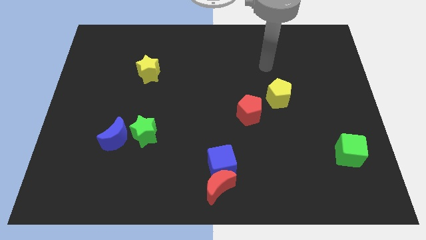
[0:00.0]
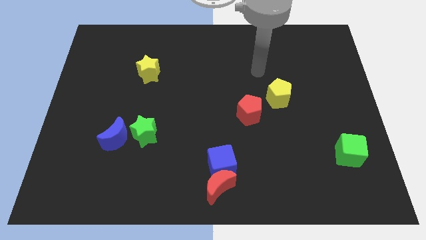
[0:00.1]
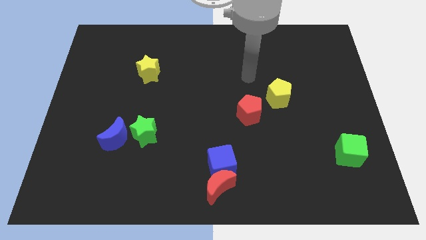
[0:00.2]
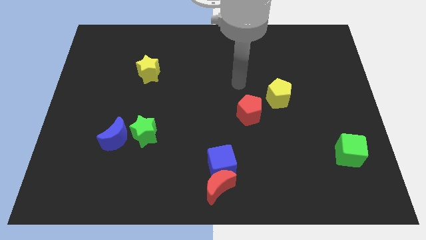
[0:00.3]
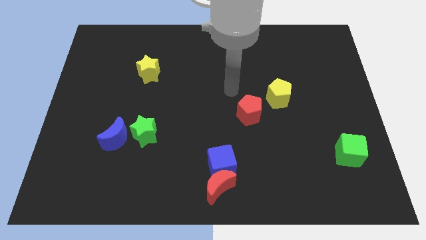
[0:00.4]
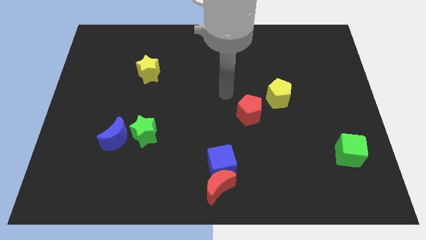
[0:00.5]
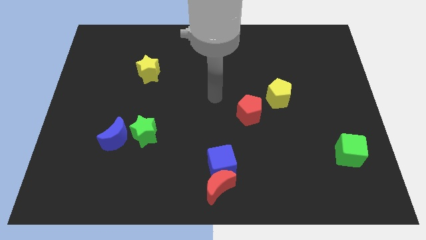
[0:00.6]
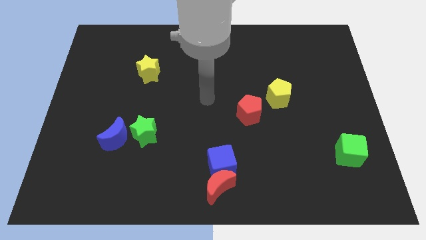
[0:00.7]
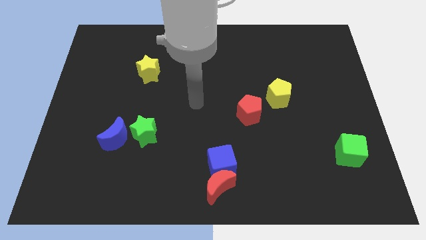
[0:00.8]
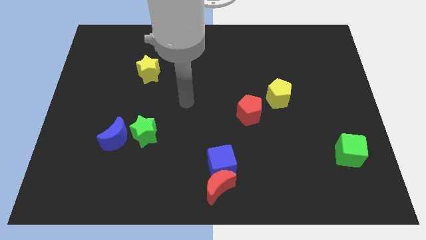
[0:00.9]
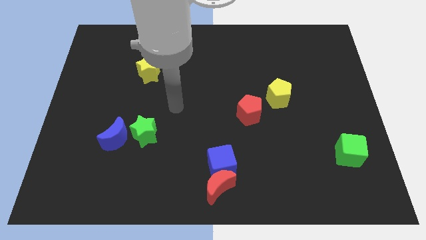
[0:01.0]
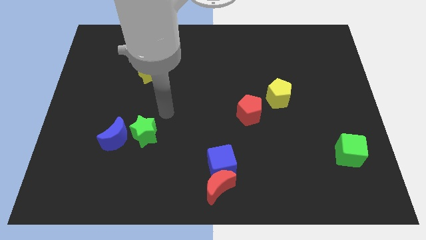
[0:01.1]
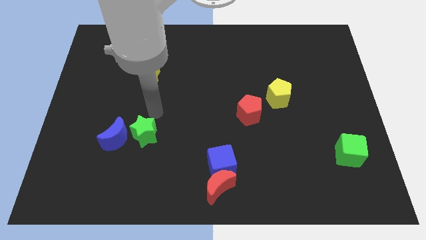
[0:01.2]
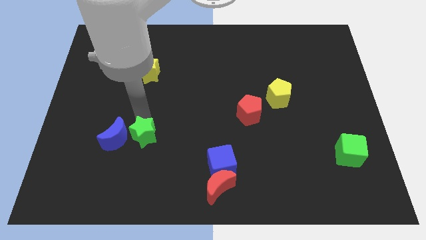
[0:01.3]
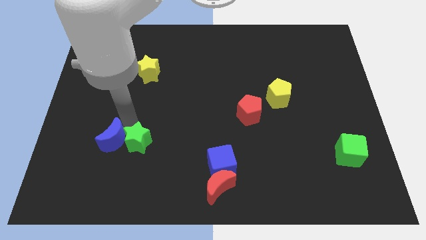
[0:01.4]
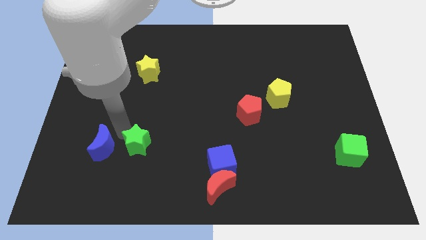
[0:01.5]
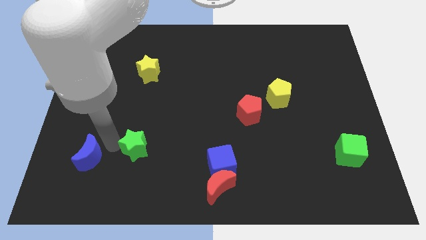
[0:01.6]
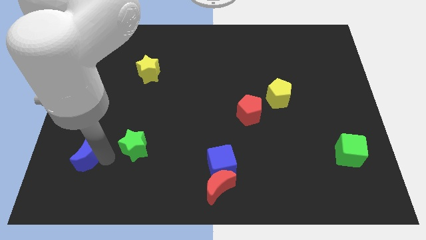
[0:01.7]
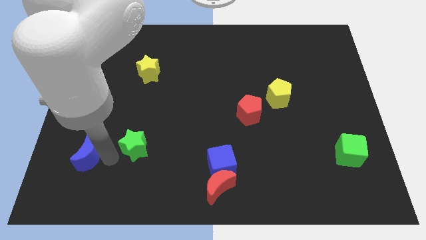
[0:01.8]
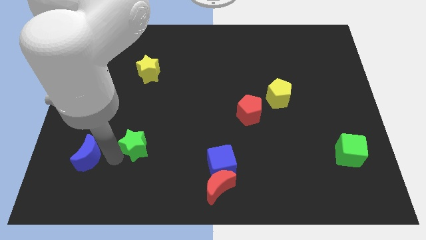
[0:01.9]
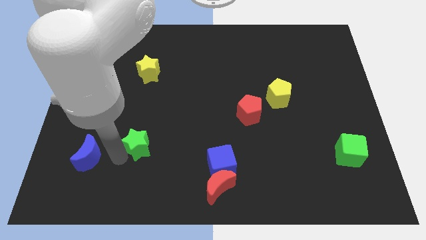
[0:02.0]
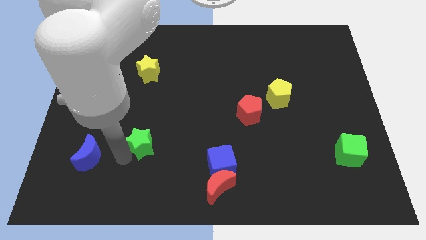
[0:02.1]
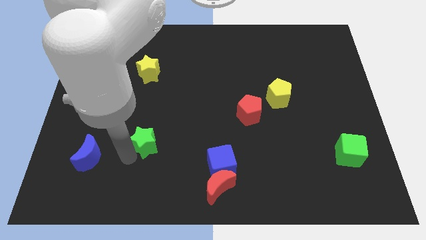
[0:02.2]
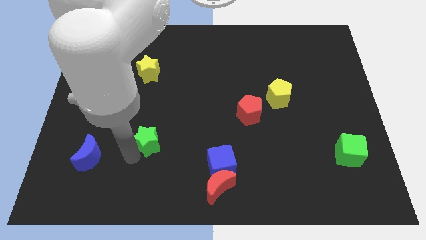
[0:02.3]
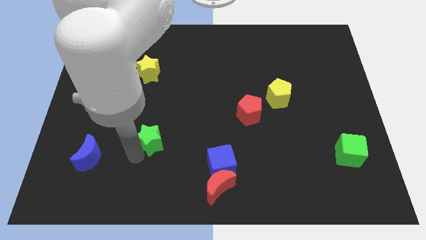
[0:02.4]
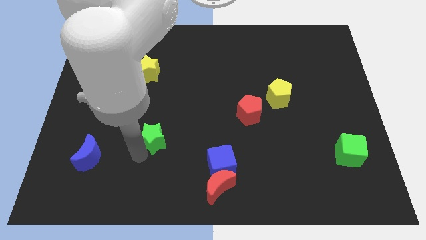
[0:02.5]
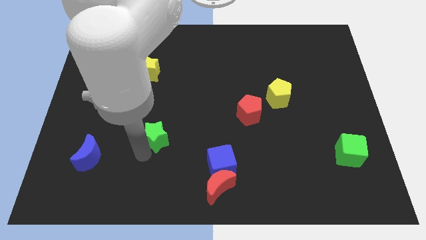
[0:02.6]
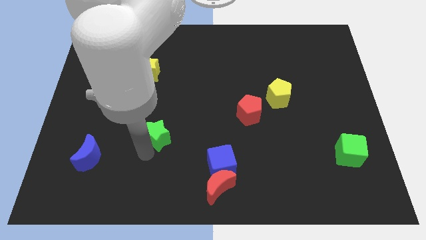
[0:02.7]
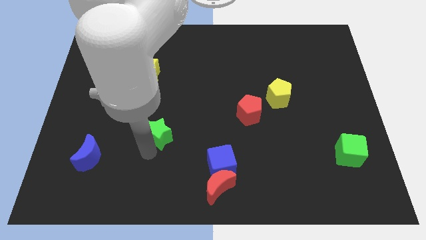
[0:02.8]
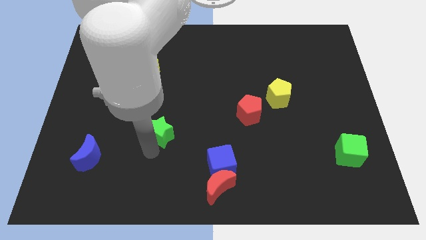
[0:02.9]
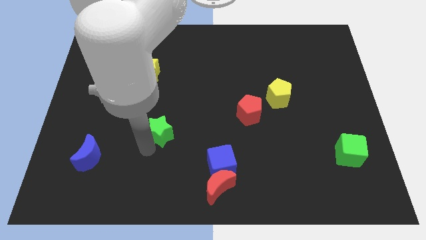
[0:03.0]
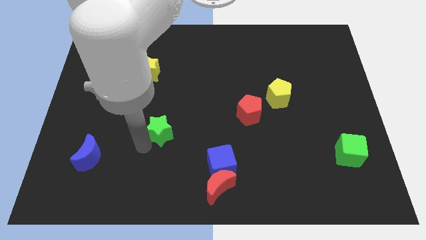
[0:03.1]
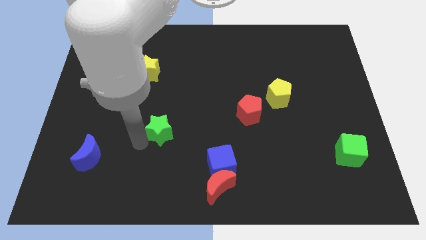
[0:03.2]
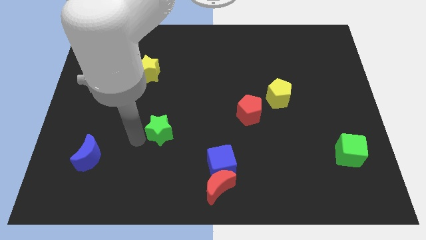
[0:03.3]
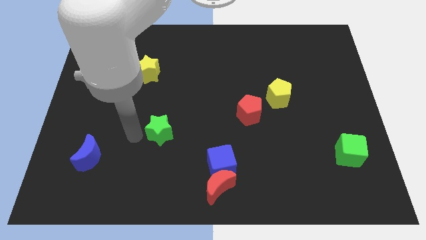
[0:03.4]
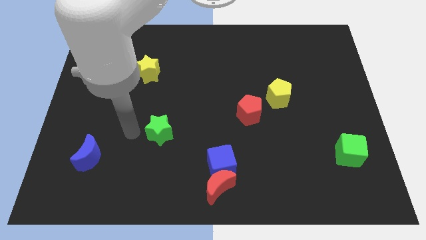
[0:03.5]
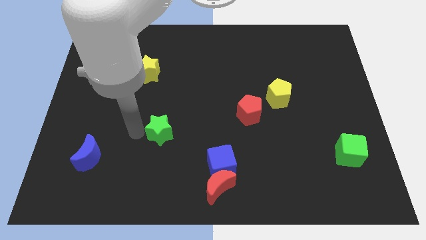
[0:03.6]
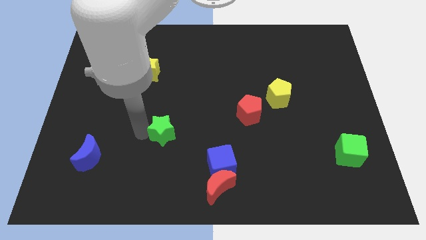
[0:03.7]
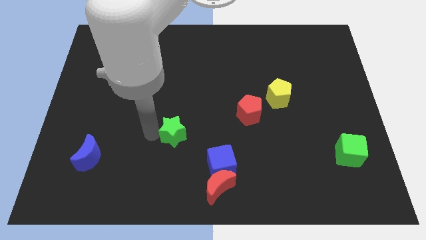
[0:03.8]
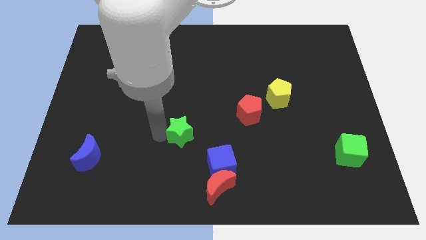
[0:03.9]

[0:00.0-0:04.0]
slide the green star a bit to the right

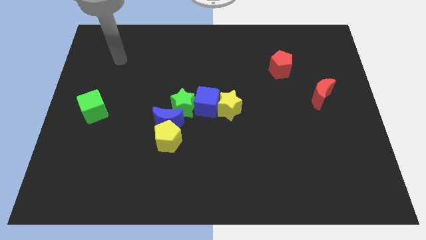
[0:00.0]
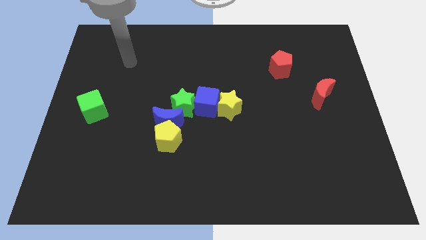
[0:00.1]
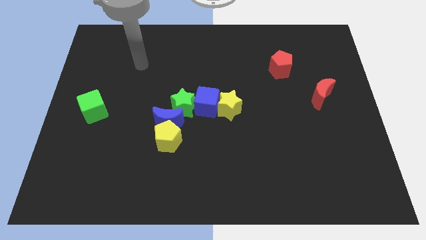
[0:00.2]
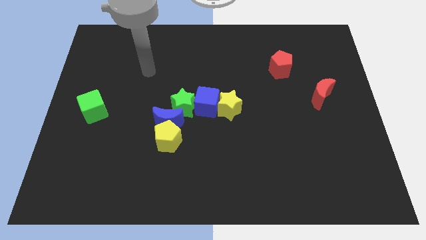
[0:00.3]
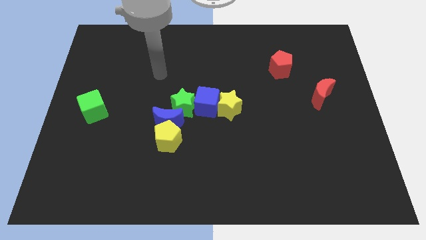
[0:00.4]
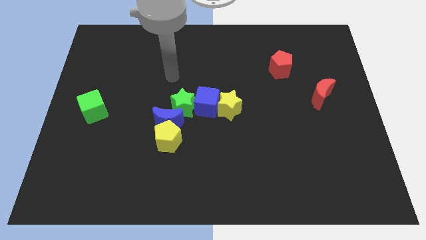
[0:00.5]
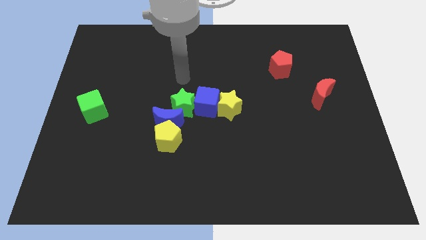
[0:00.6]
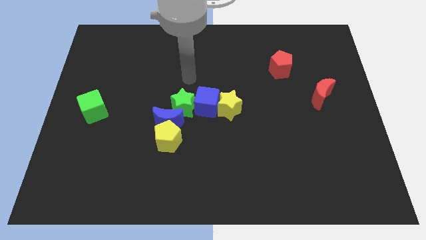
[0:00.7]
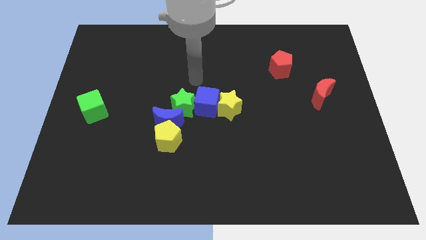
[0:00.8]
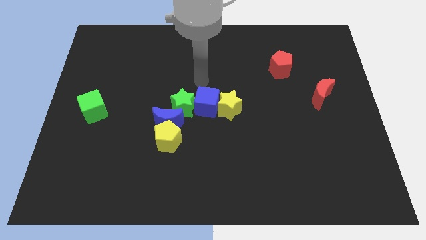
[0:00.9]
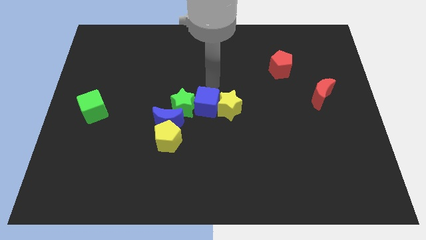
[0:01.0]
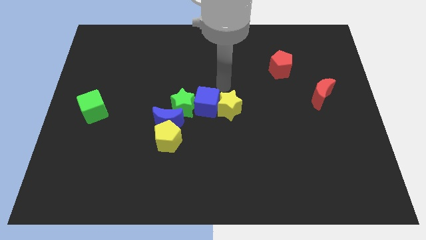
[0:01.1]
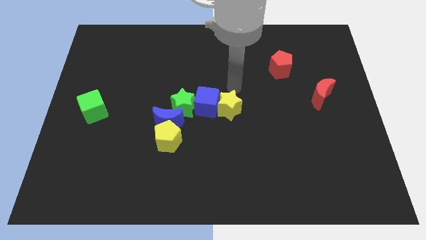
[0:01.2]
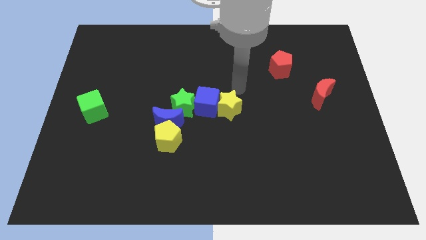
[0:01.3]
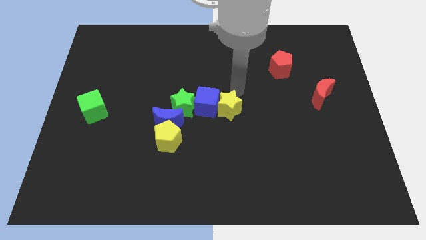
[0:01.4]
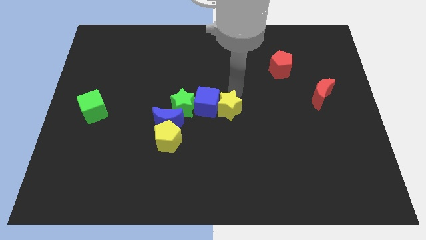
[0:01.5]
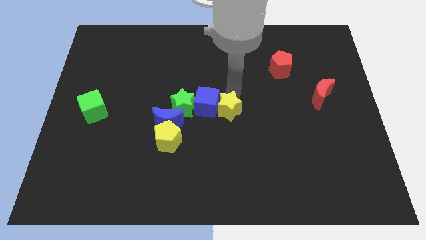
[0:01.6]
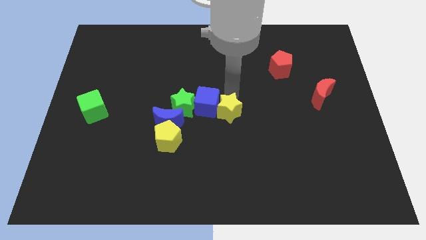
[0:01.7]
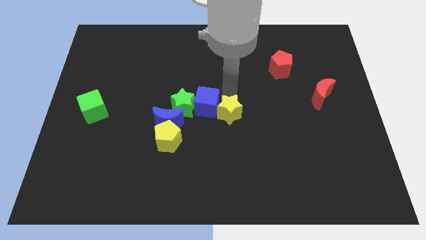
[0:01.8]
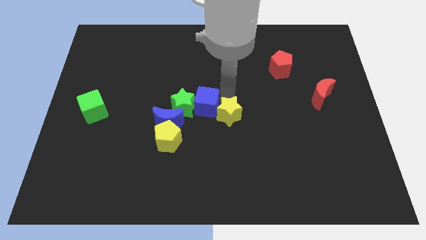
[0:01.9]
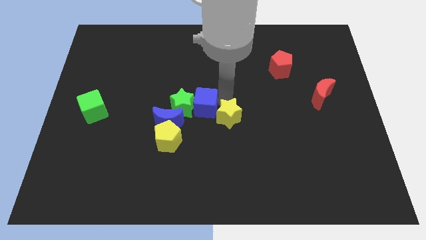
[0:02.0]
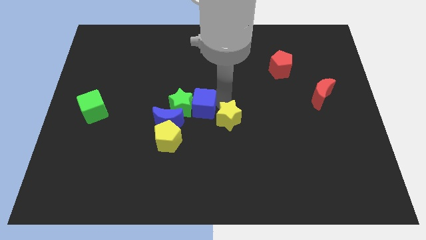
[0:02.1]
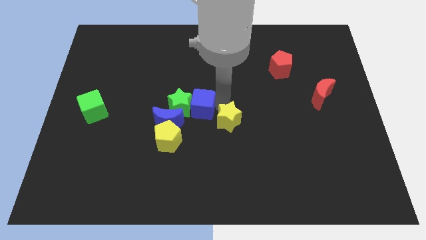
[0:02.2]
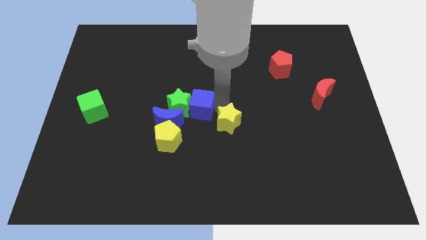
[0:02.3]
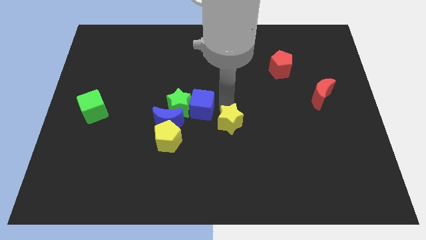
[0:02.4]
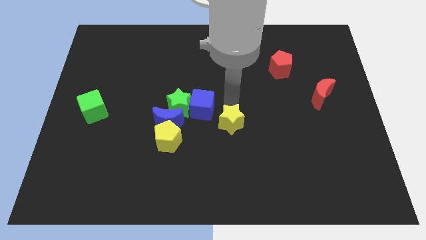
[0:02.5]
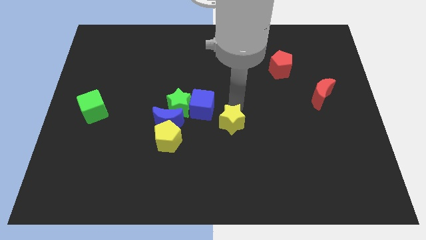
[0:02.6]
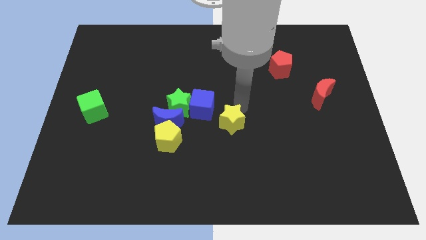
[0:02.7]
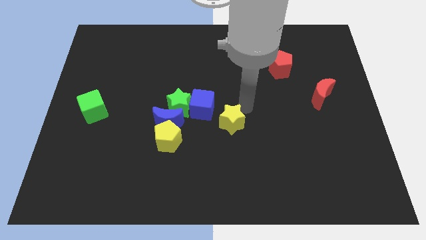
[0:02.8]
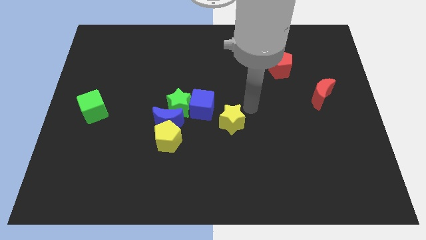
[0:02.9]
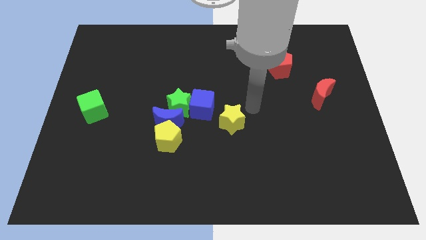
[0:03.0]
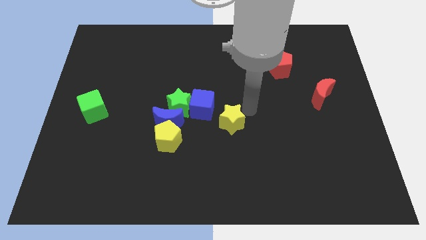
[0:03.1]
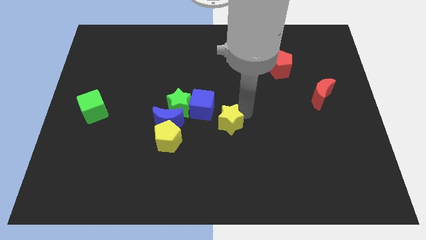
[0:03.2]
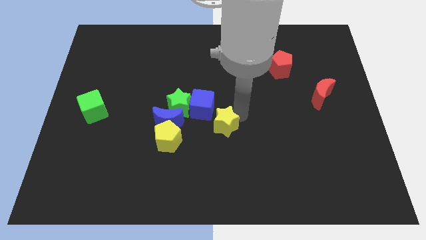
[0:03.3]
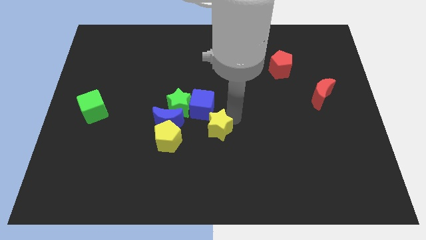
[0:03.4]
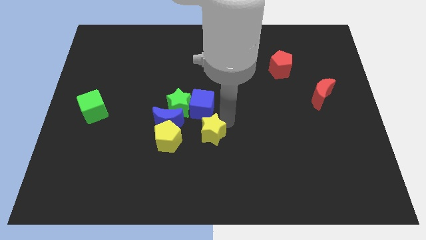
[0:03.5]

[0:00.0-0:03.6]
push the yellow star somewhat downwards and then to the left

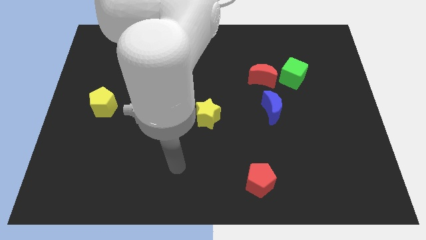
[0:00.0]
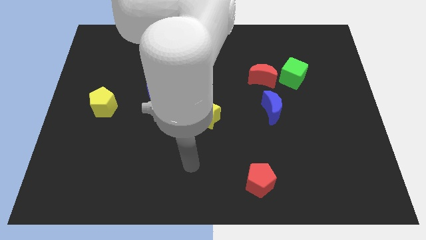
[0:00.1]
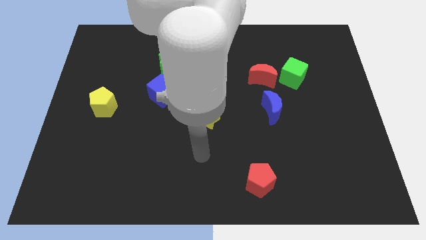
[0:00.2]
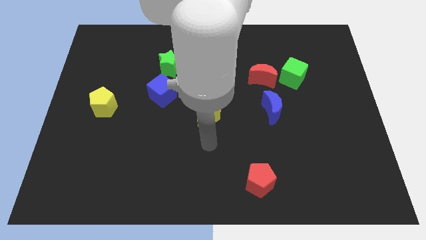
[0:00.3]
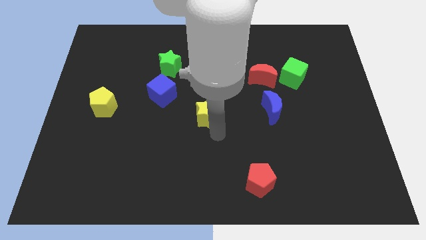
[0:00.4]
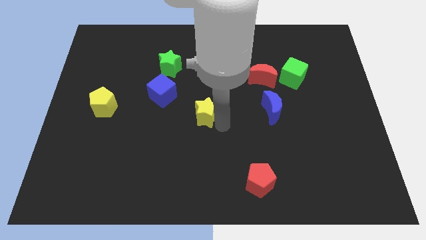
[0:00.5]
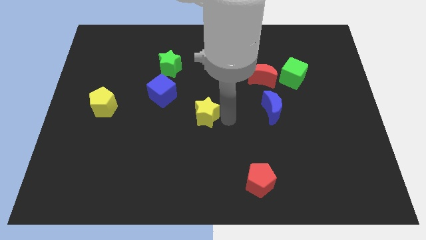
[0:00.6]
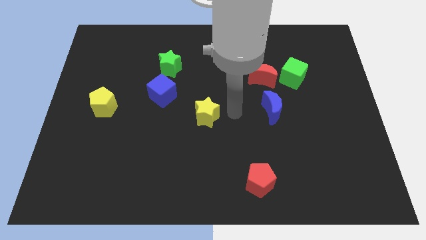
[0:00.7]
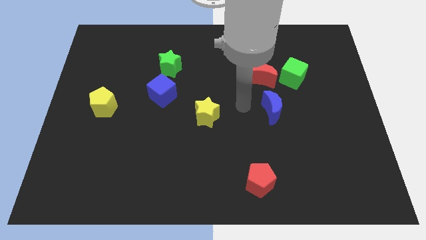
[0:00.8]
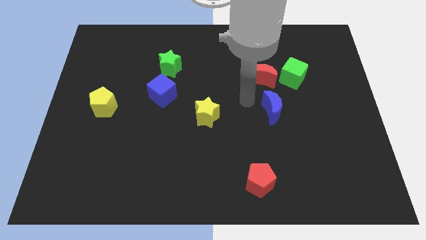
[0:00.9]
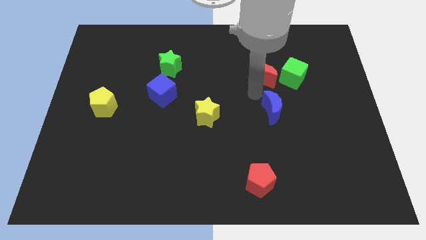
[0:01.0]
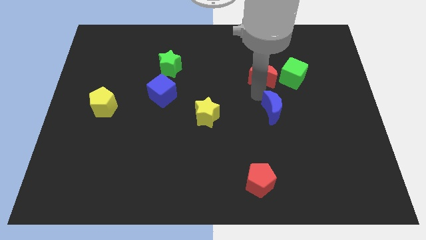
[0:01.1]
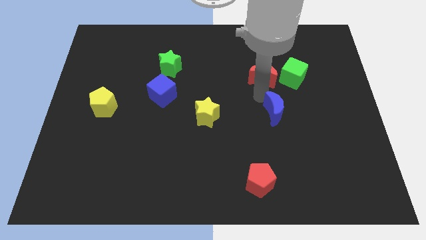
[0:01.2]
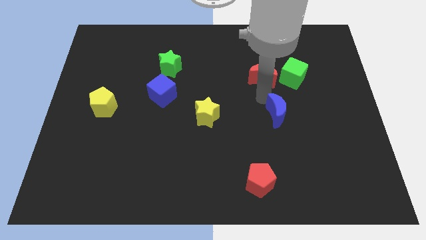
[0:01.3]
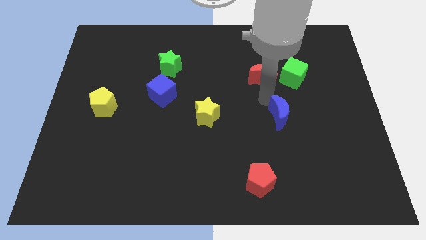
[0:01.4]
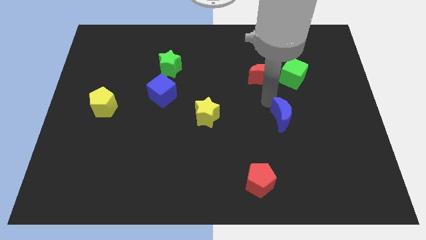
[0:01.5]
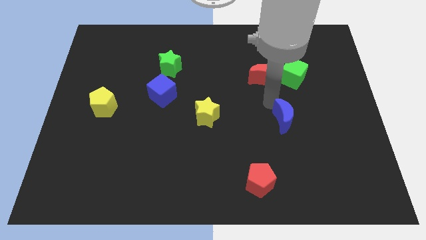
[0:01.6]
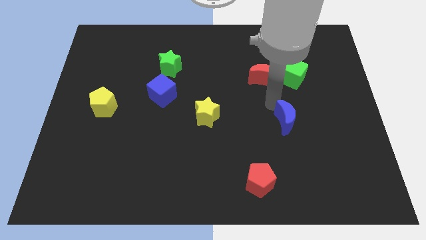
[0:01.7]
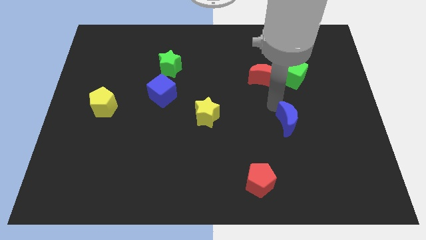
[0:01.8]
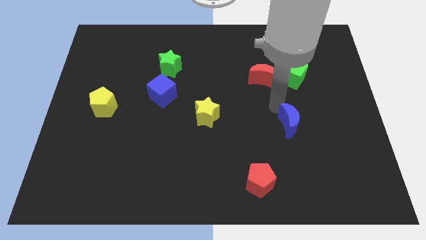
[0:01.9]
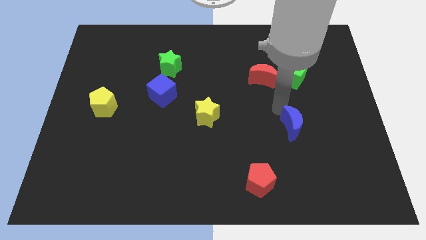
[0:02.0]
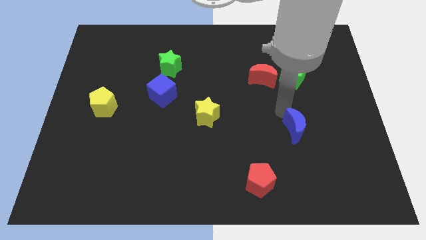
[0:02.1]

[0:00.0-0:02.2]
move the blue moon diagonally down and right a little
